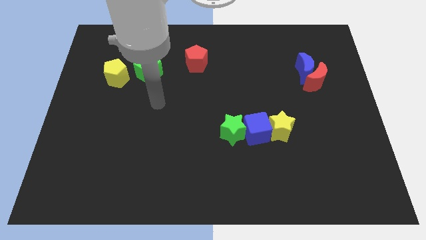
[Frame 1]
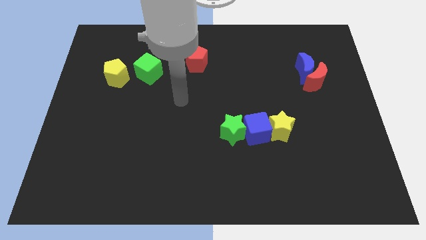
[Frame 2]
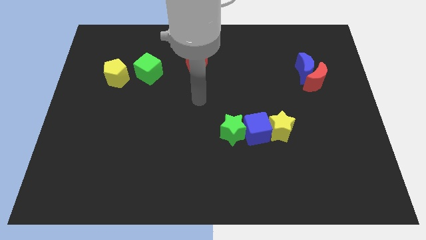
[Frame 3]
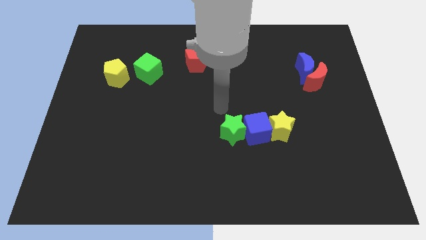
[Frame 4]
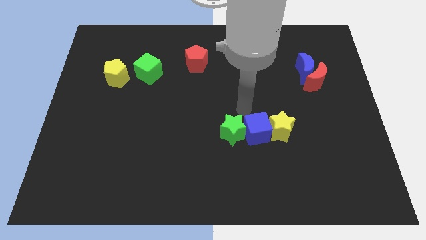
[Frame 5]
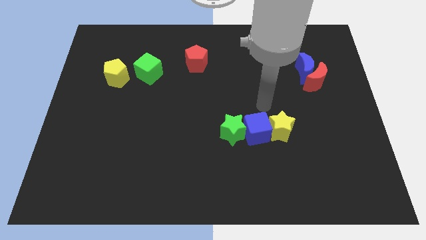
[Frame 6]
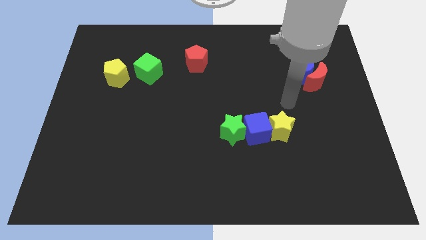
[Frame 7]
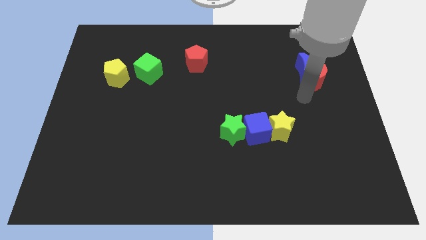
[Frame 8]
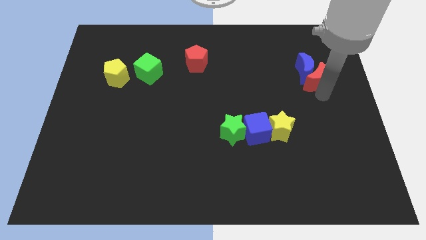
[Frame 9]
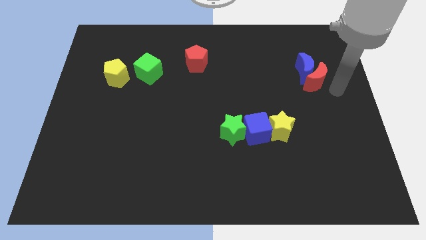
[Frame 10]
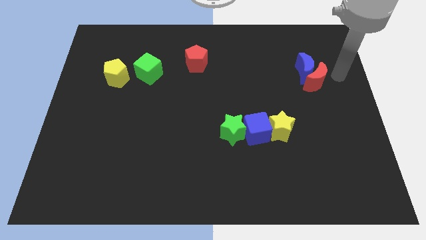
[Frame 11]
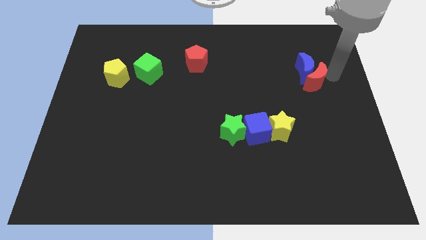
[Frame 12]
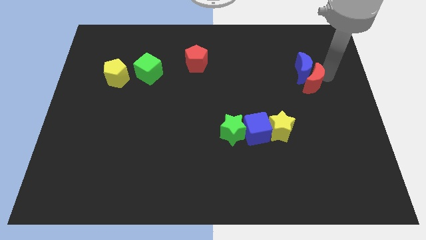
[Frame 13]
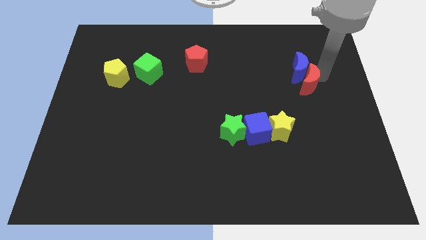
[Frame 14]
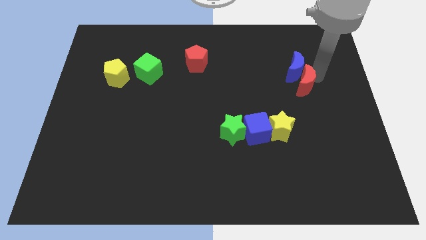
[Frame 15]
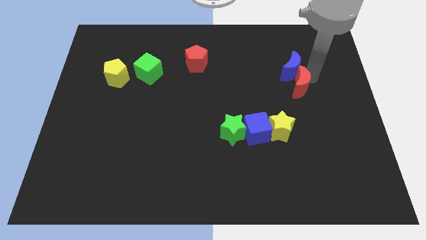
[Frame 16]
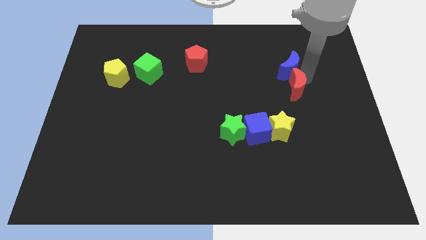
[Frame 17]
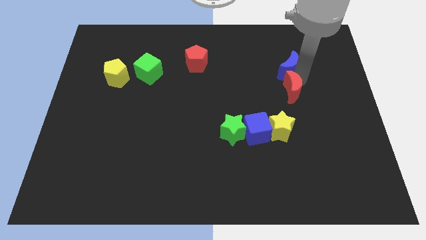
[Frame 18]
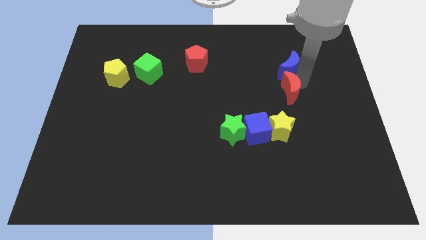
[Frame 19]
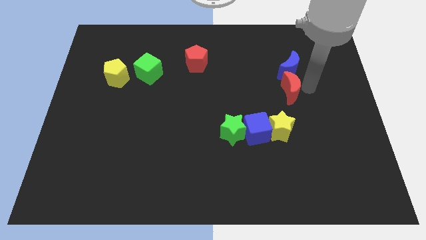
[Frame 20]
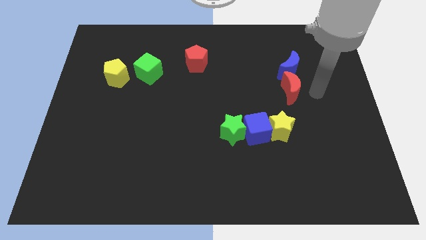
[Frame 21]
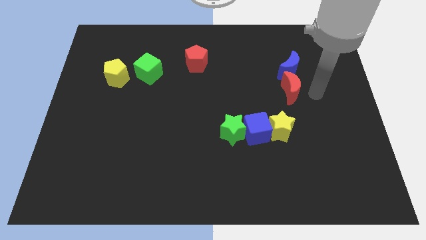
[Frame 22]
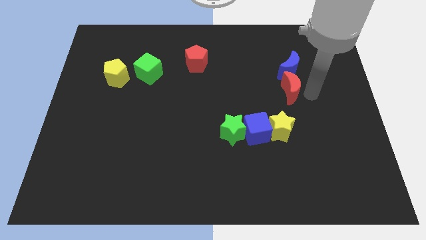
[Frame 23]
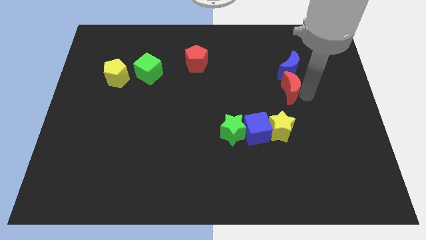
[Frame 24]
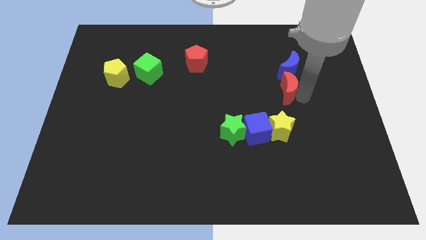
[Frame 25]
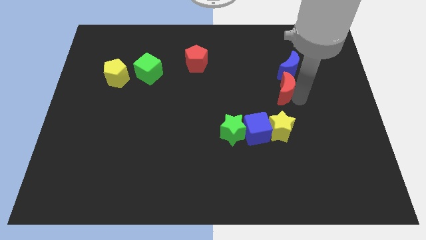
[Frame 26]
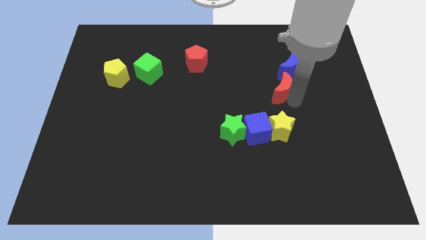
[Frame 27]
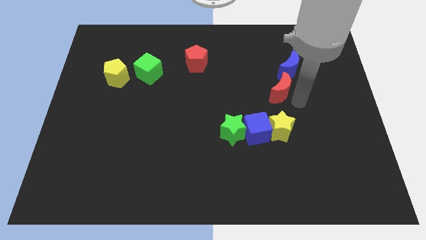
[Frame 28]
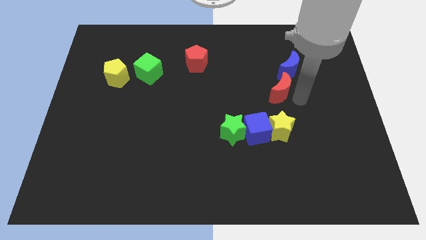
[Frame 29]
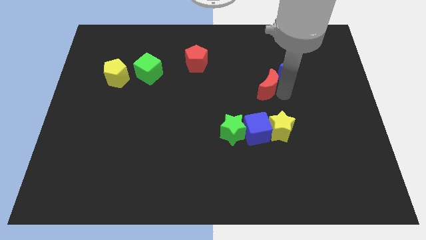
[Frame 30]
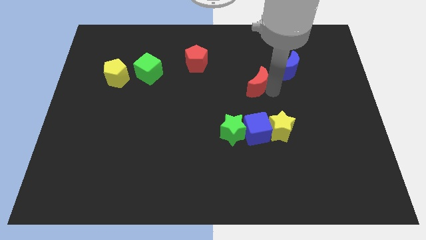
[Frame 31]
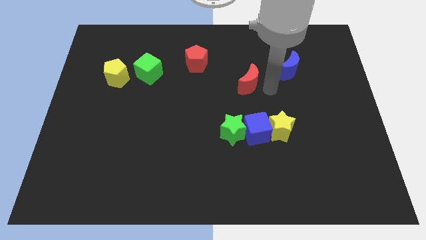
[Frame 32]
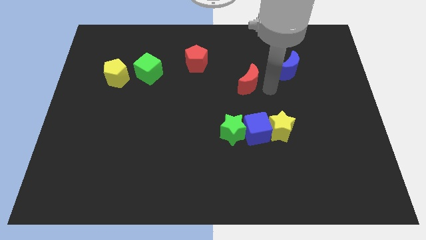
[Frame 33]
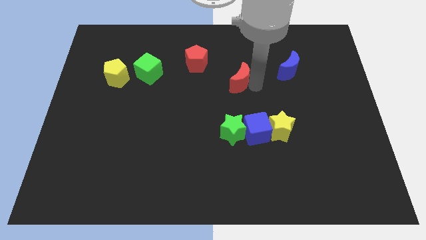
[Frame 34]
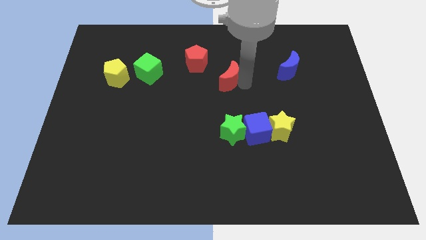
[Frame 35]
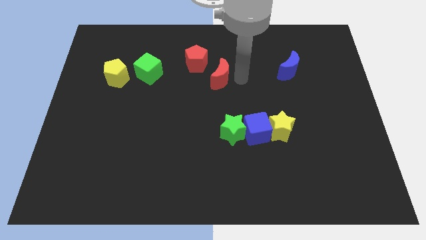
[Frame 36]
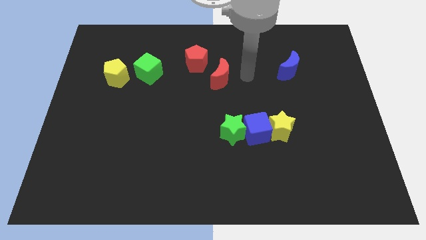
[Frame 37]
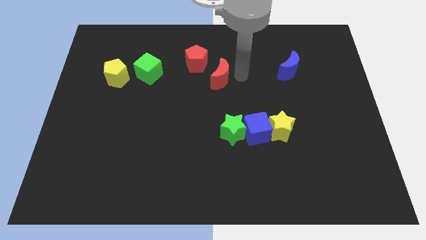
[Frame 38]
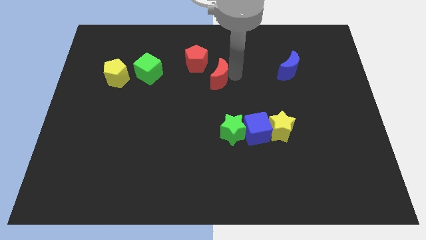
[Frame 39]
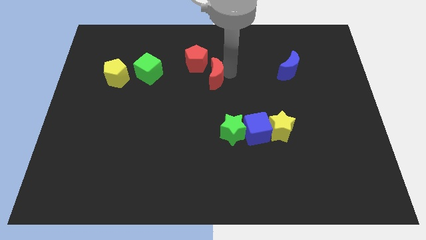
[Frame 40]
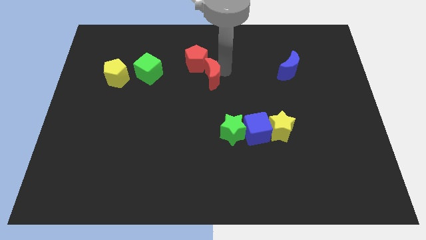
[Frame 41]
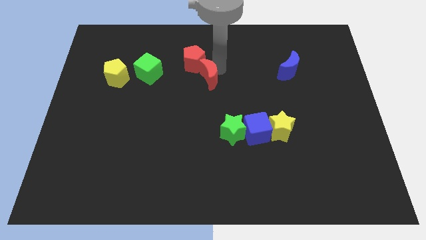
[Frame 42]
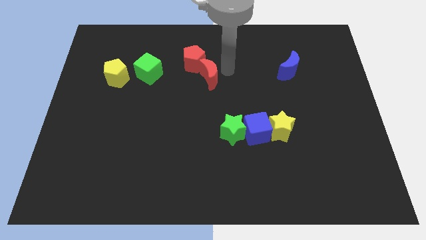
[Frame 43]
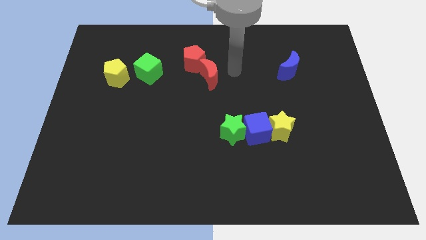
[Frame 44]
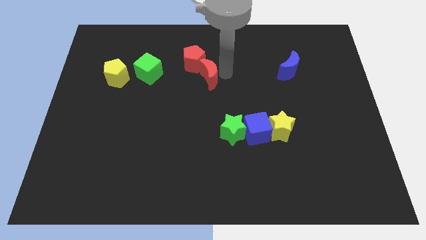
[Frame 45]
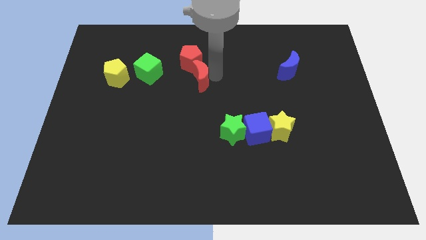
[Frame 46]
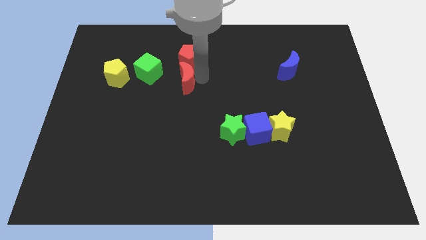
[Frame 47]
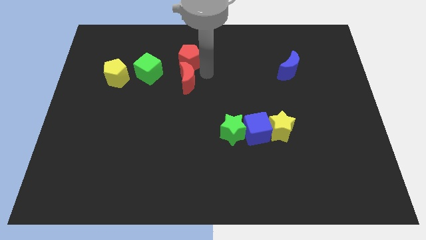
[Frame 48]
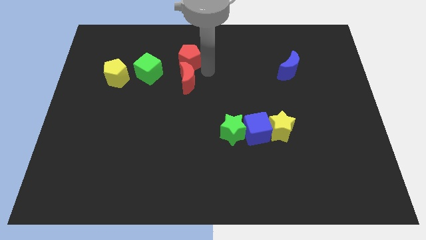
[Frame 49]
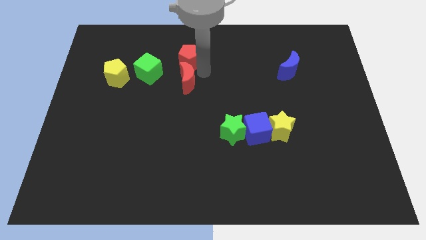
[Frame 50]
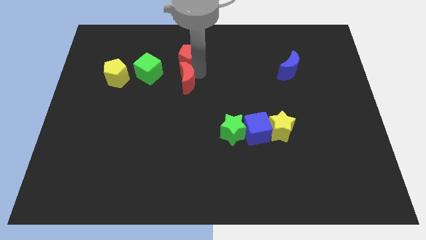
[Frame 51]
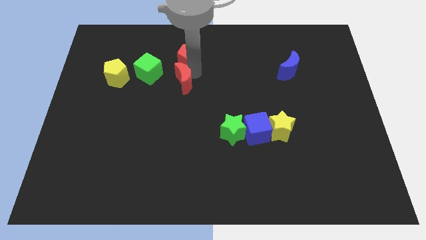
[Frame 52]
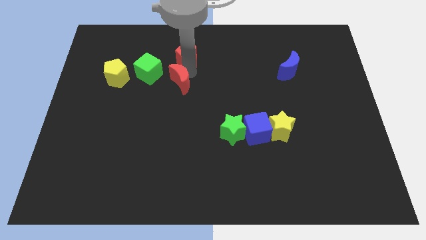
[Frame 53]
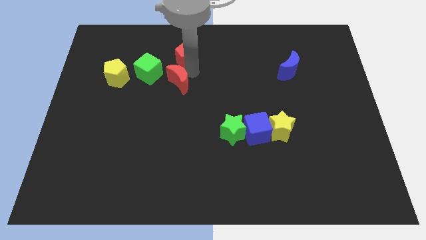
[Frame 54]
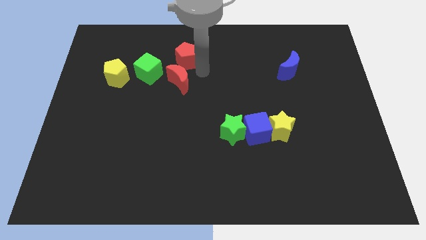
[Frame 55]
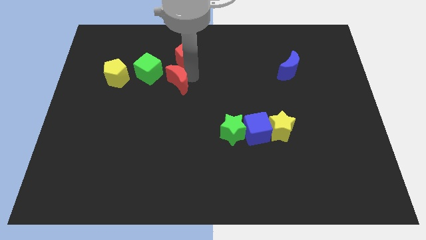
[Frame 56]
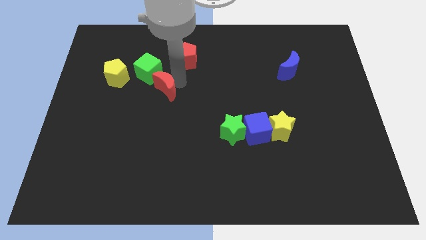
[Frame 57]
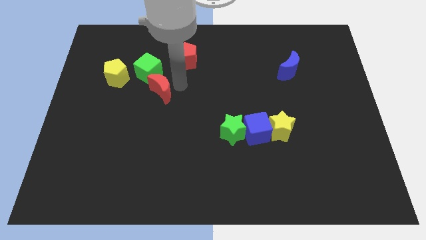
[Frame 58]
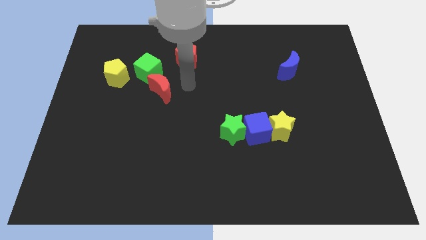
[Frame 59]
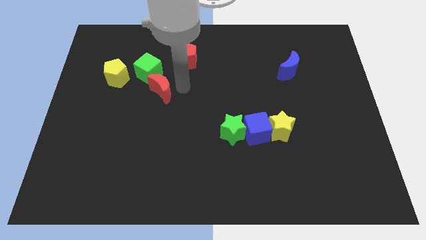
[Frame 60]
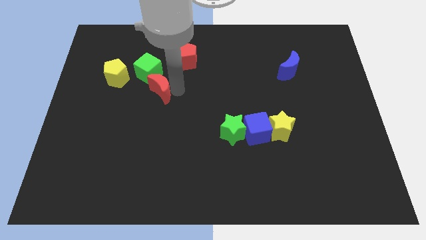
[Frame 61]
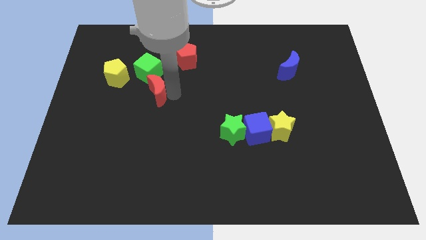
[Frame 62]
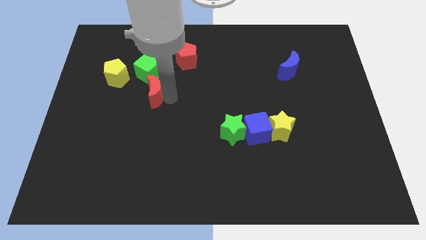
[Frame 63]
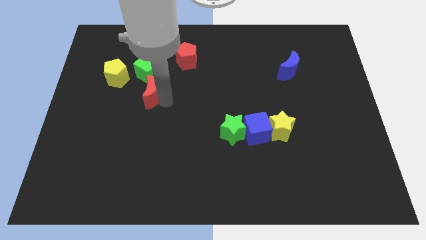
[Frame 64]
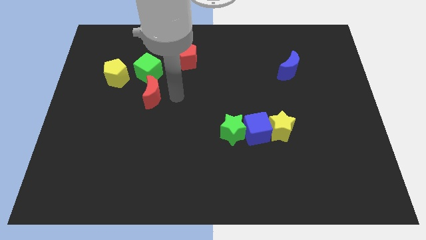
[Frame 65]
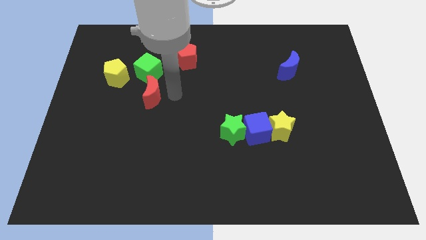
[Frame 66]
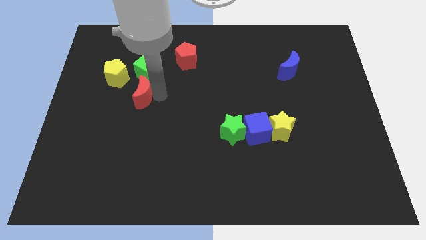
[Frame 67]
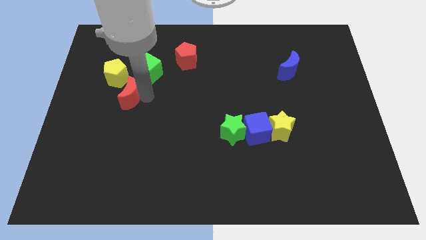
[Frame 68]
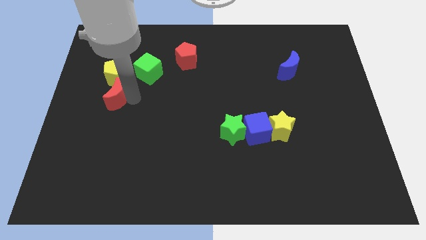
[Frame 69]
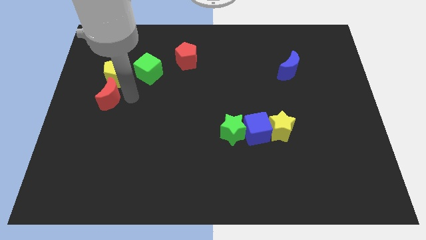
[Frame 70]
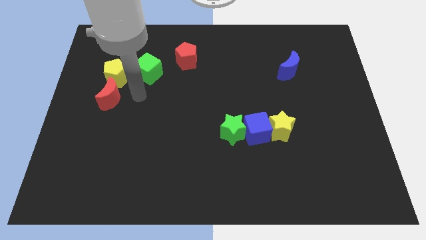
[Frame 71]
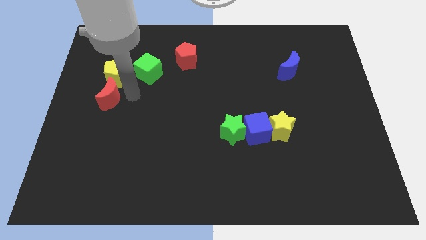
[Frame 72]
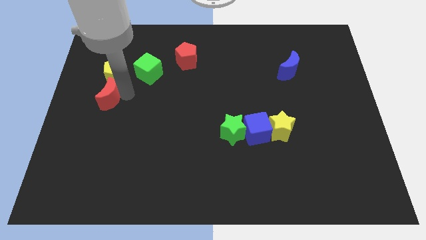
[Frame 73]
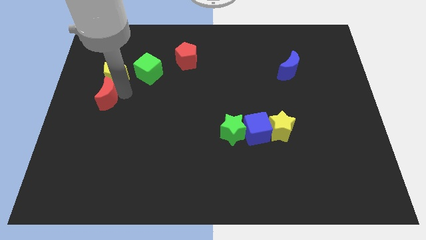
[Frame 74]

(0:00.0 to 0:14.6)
slide the red moon to the left side of the board
